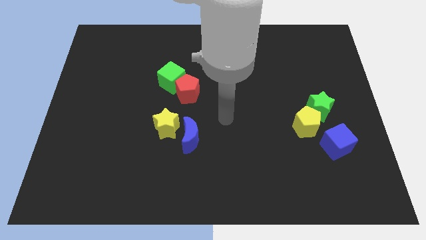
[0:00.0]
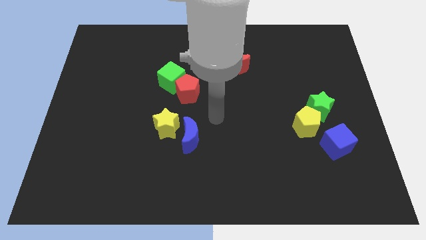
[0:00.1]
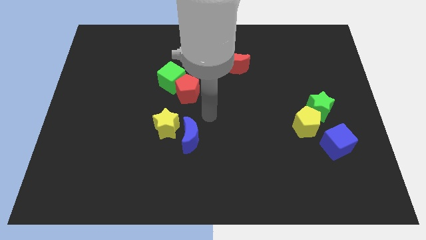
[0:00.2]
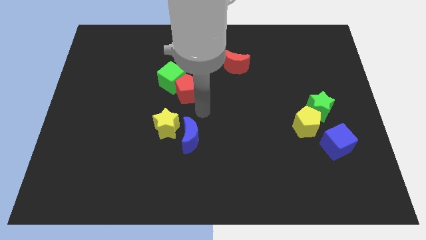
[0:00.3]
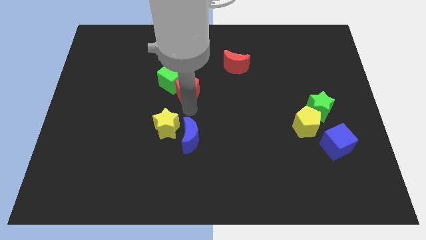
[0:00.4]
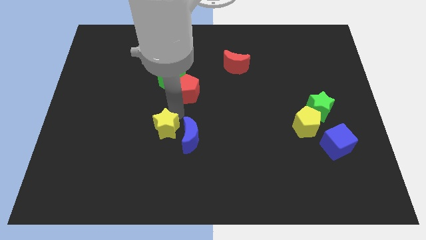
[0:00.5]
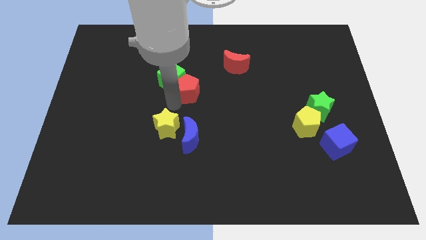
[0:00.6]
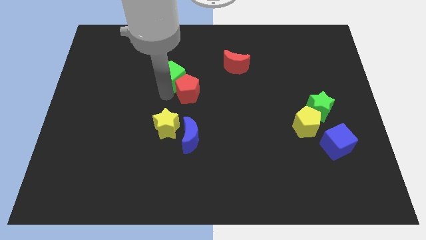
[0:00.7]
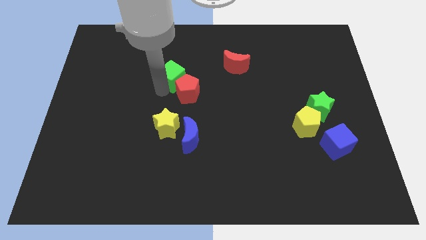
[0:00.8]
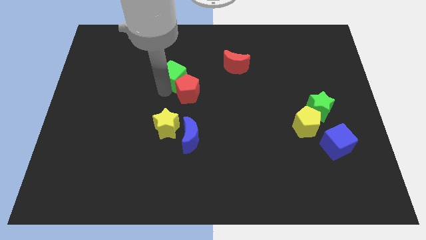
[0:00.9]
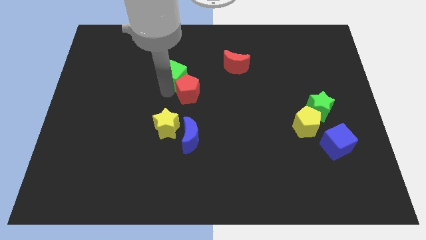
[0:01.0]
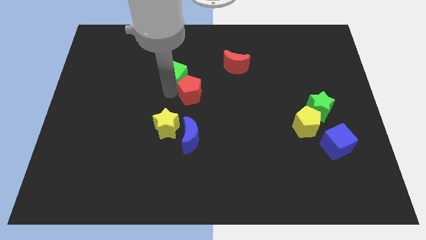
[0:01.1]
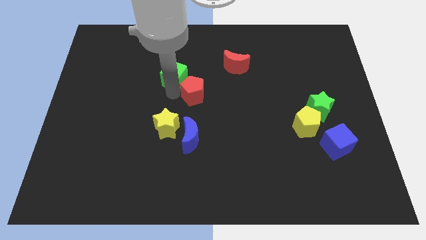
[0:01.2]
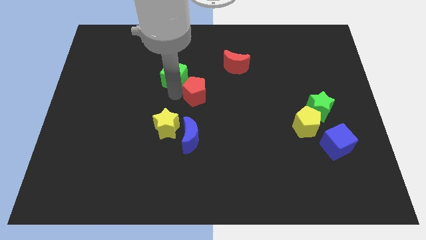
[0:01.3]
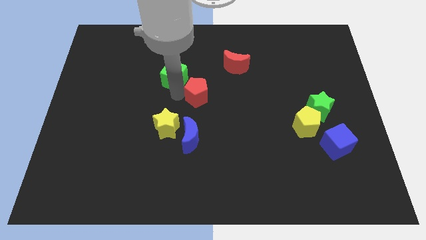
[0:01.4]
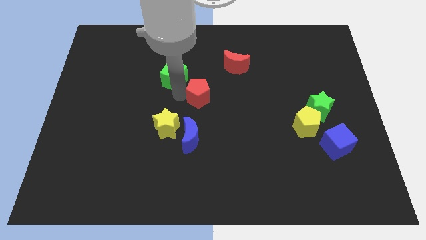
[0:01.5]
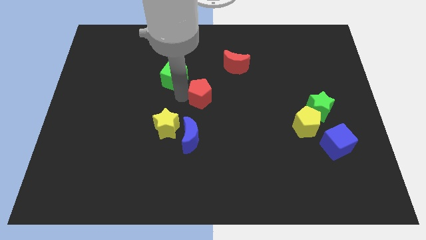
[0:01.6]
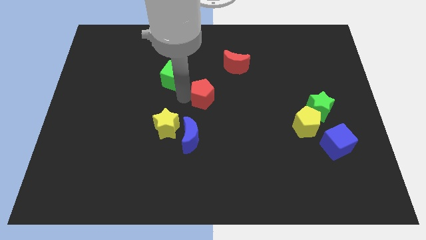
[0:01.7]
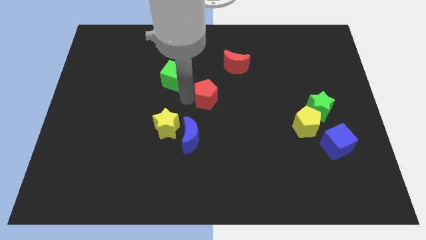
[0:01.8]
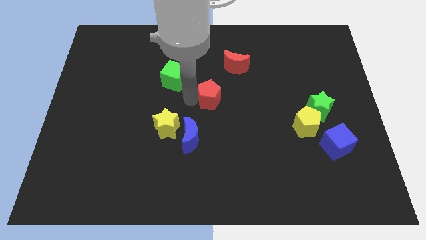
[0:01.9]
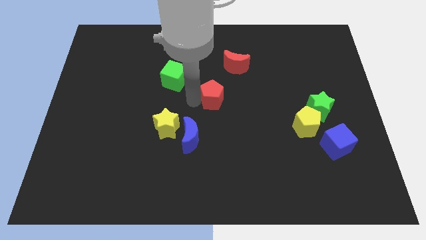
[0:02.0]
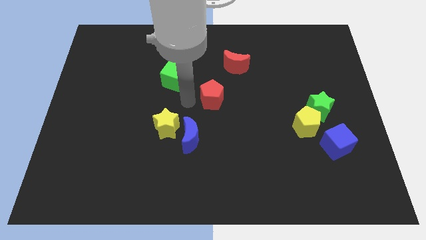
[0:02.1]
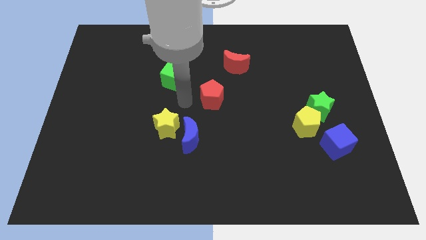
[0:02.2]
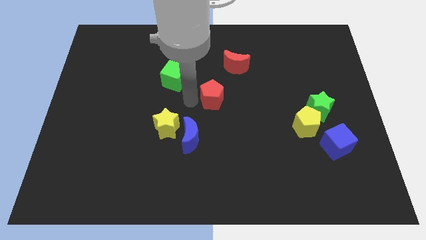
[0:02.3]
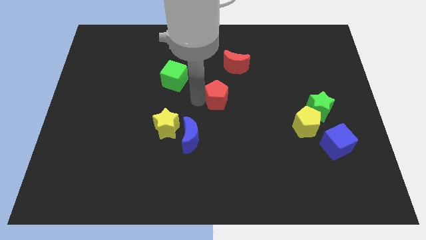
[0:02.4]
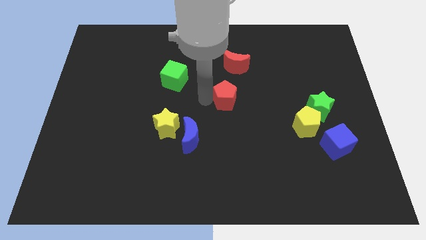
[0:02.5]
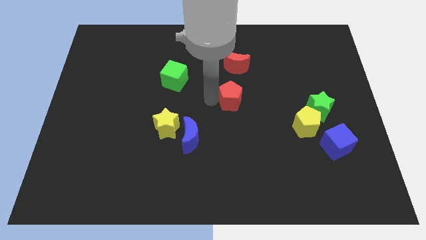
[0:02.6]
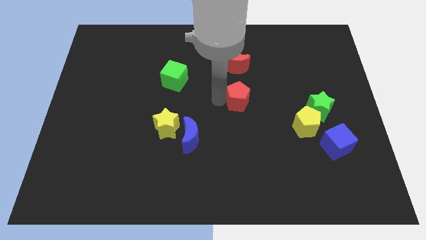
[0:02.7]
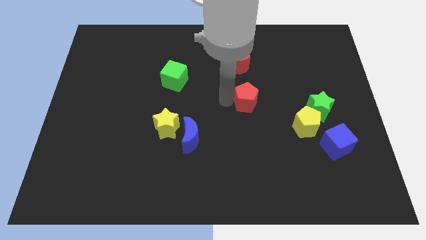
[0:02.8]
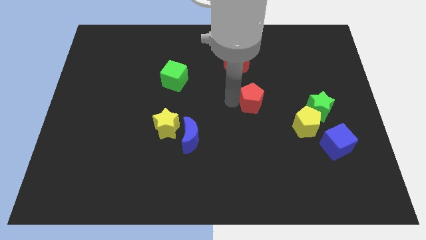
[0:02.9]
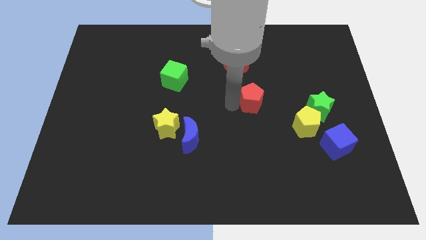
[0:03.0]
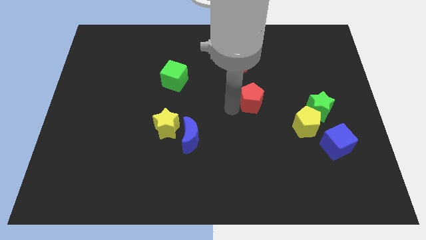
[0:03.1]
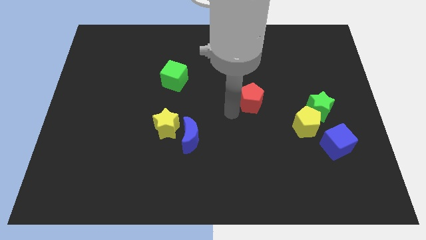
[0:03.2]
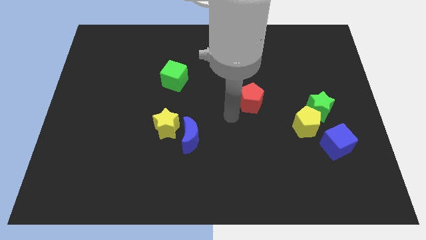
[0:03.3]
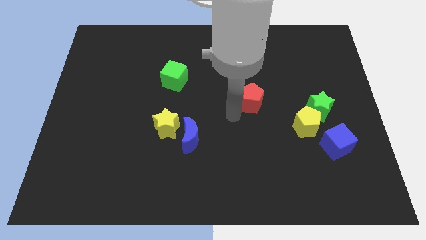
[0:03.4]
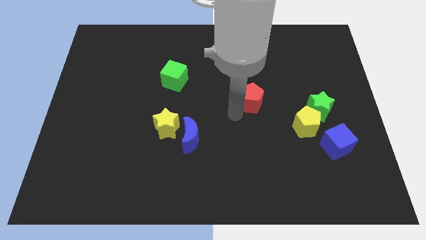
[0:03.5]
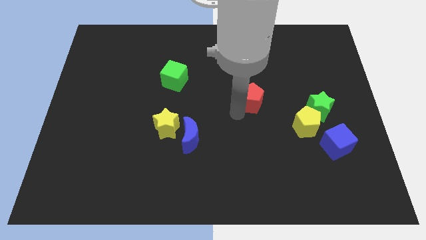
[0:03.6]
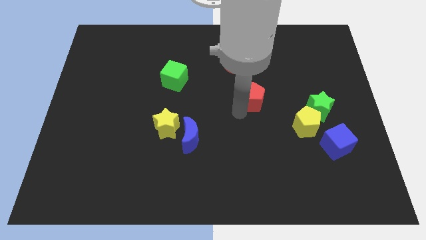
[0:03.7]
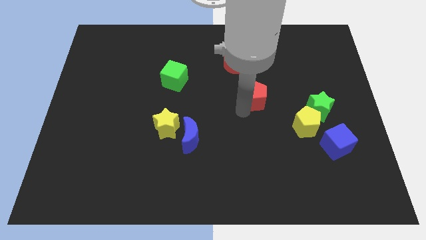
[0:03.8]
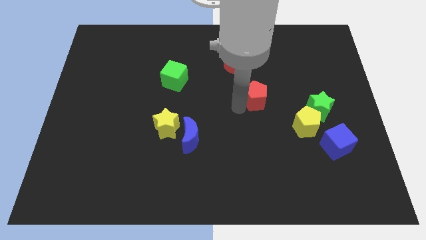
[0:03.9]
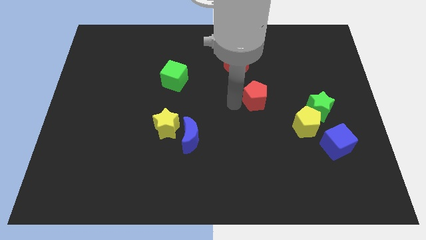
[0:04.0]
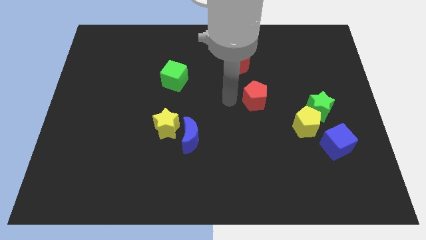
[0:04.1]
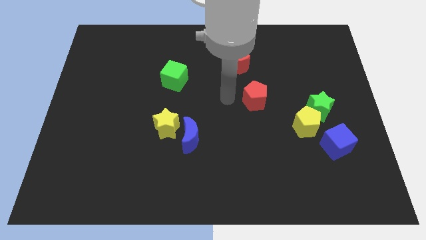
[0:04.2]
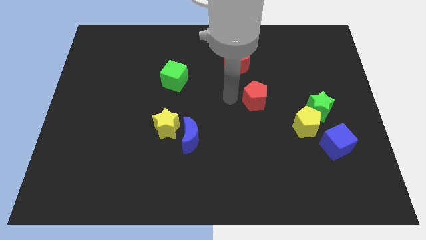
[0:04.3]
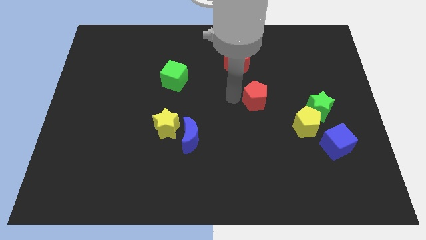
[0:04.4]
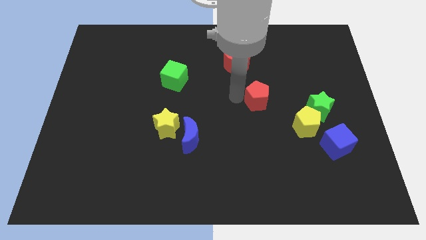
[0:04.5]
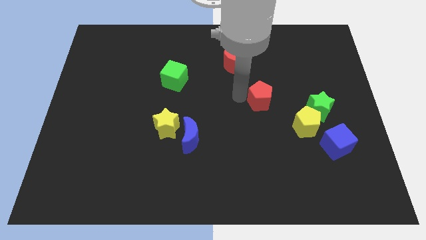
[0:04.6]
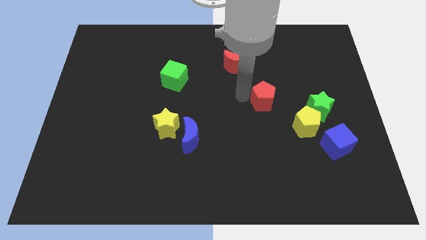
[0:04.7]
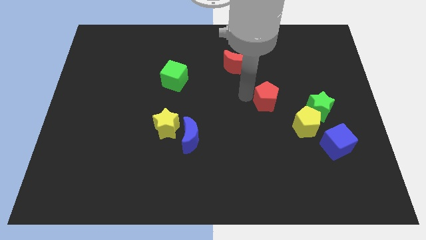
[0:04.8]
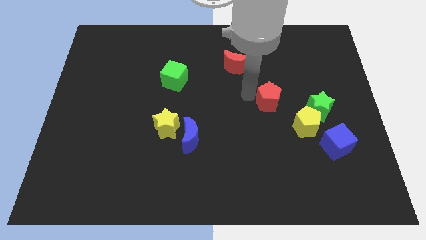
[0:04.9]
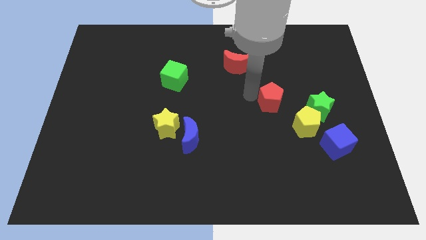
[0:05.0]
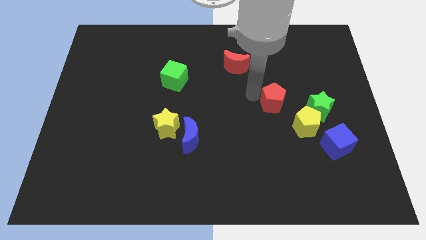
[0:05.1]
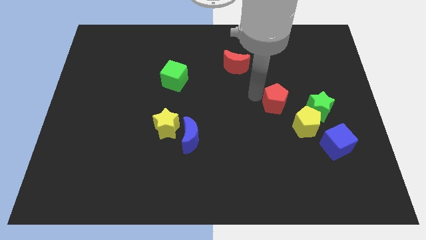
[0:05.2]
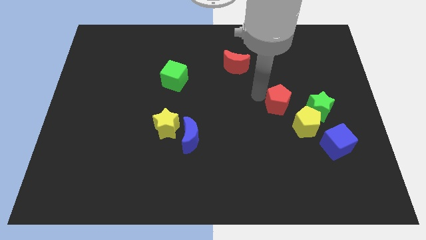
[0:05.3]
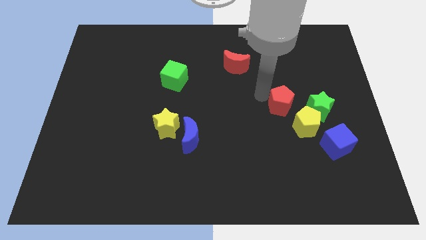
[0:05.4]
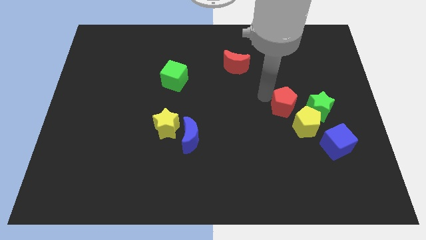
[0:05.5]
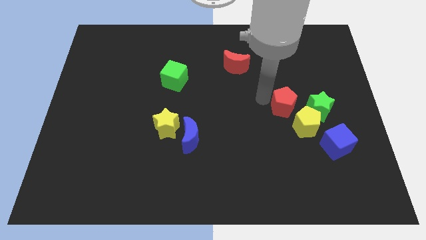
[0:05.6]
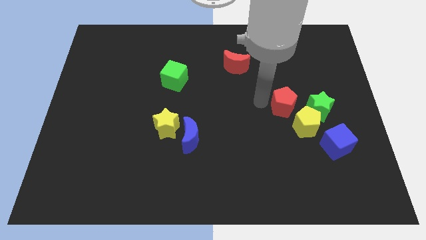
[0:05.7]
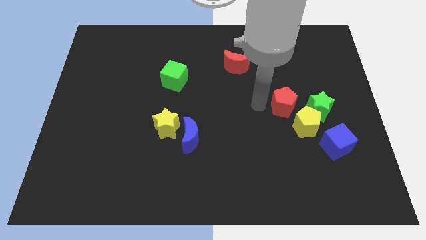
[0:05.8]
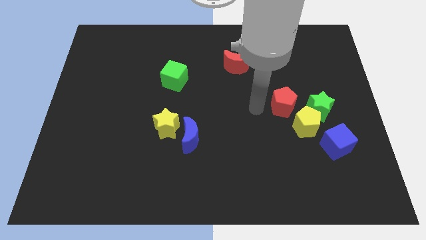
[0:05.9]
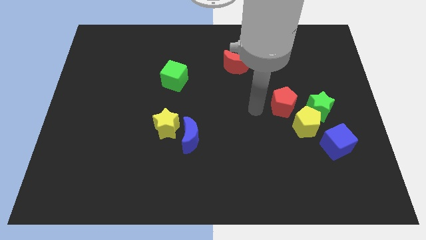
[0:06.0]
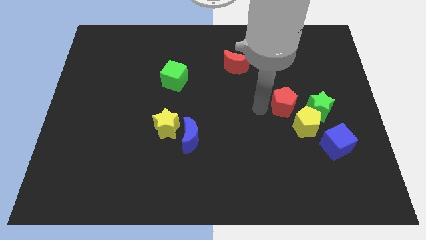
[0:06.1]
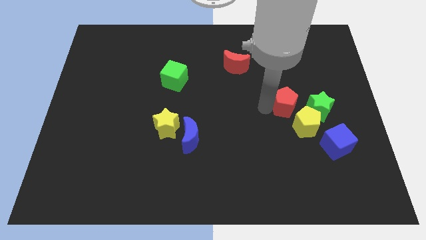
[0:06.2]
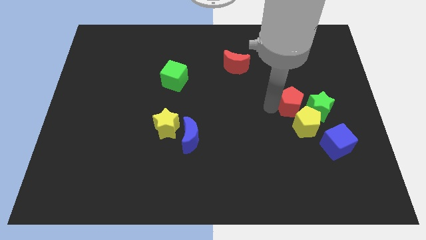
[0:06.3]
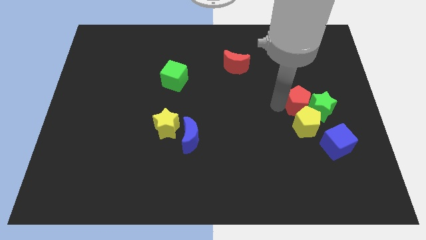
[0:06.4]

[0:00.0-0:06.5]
put the red pentagon next to the green star

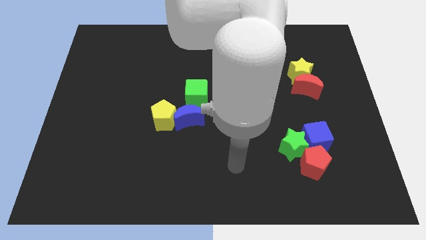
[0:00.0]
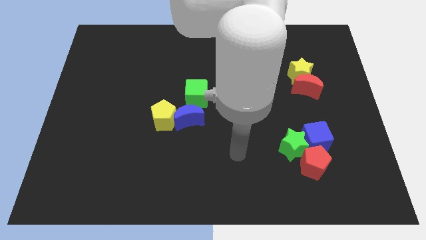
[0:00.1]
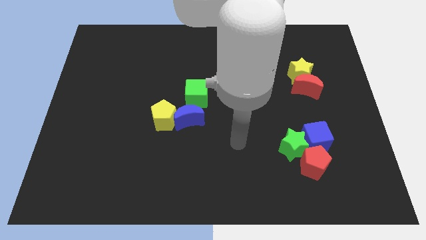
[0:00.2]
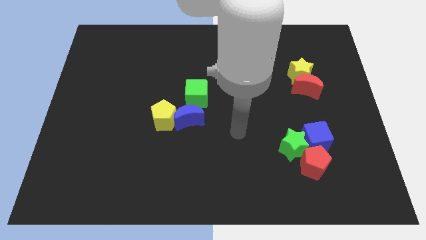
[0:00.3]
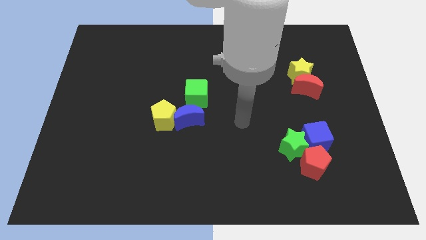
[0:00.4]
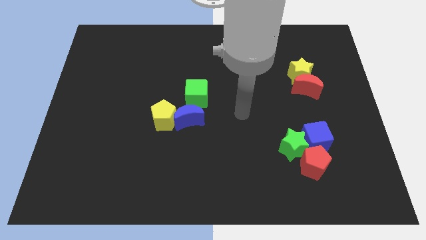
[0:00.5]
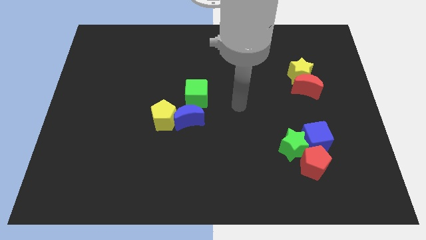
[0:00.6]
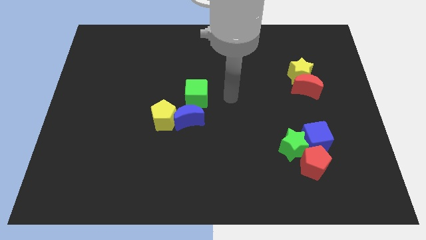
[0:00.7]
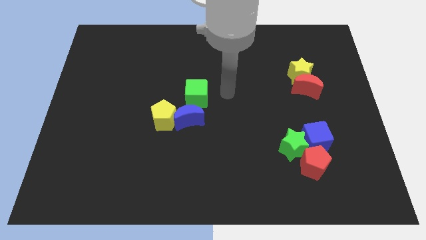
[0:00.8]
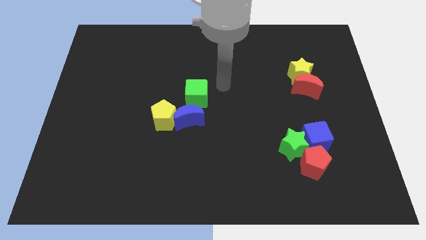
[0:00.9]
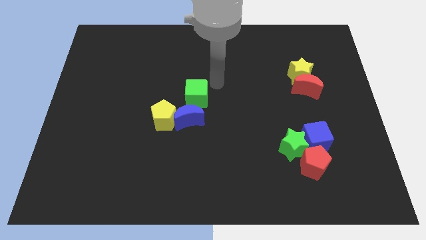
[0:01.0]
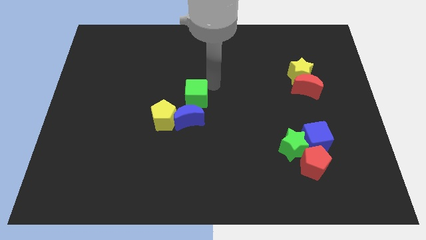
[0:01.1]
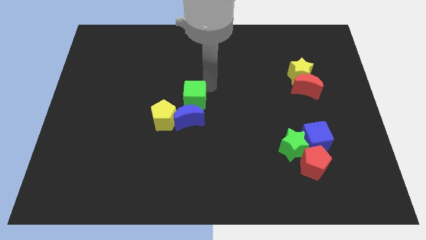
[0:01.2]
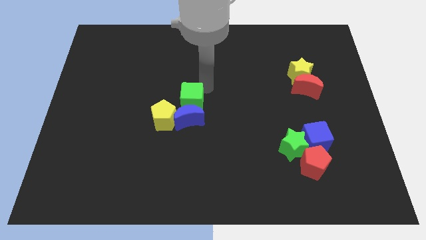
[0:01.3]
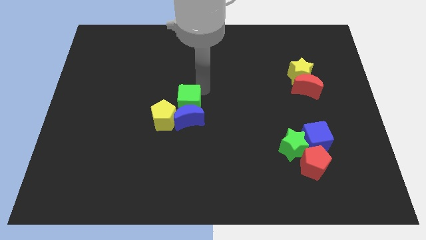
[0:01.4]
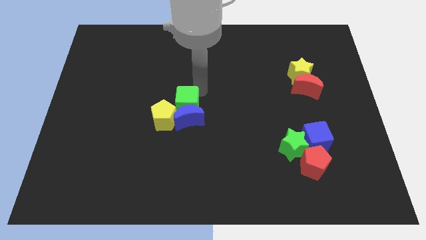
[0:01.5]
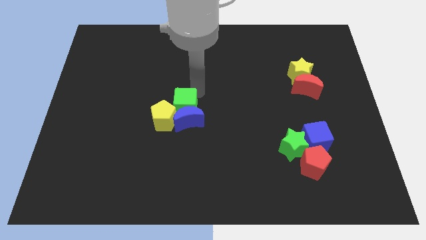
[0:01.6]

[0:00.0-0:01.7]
slide the green cube close to the yellow pentagon
